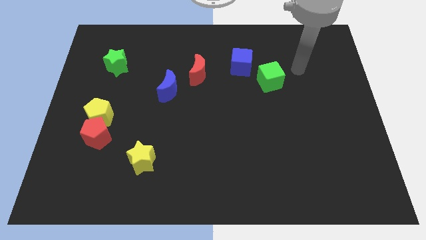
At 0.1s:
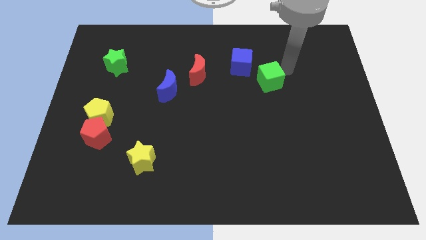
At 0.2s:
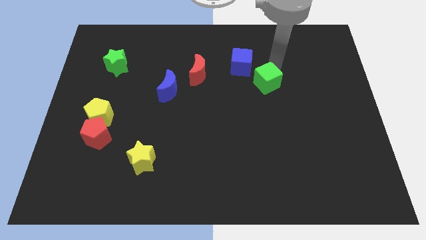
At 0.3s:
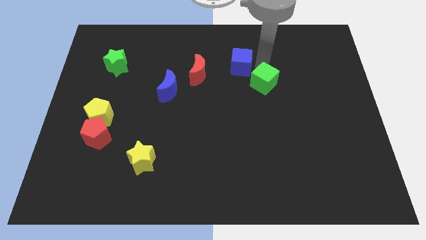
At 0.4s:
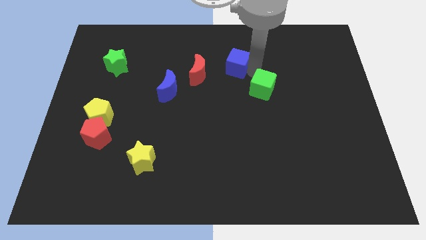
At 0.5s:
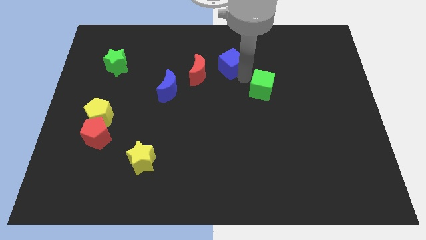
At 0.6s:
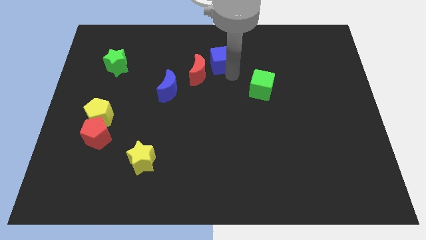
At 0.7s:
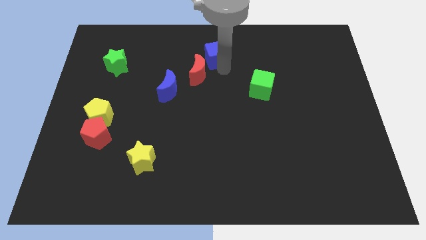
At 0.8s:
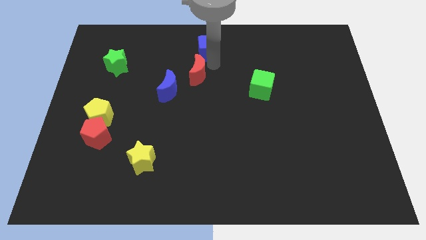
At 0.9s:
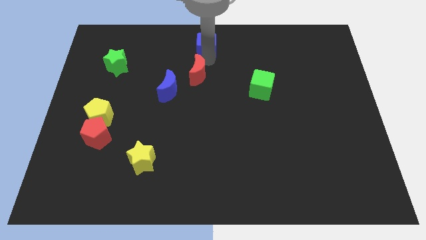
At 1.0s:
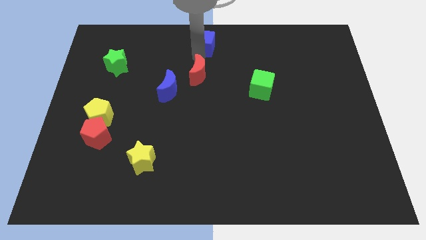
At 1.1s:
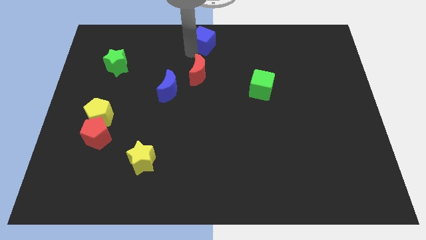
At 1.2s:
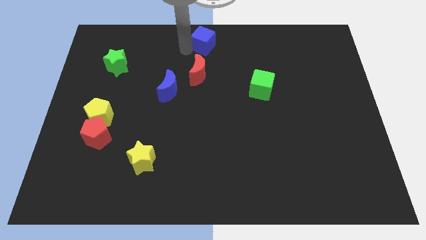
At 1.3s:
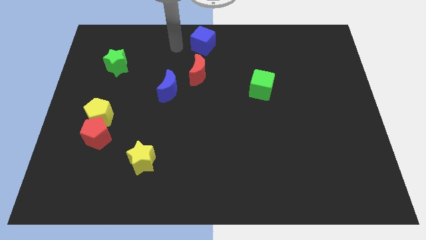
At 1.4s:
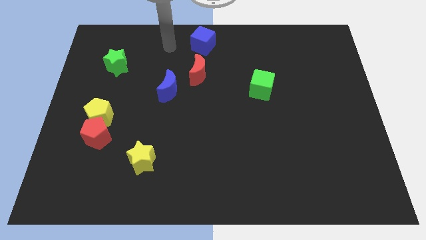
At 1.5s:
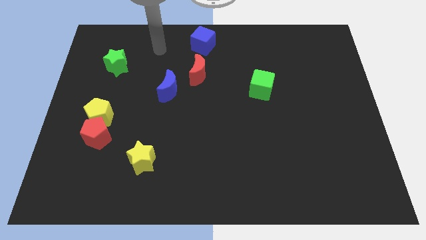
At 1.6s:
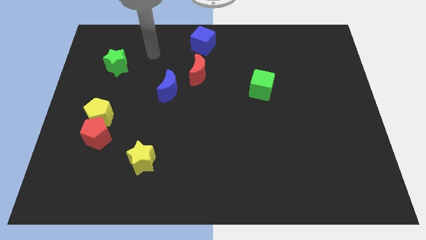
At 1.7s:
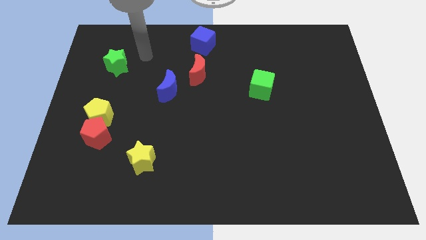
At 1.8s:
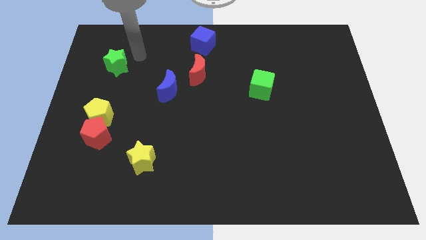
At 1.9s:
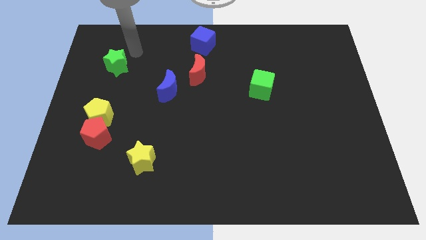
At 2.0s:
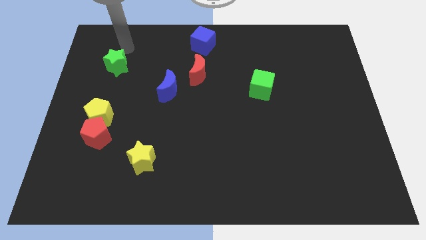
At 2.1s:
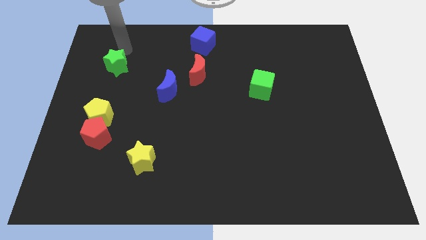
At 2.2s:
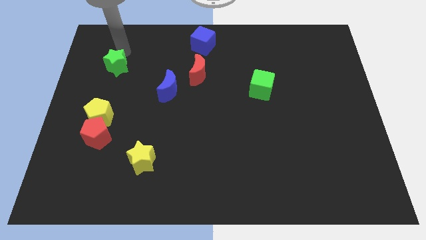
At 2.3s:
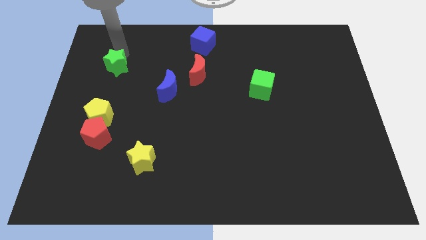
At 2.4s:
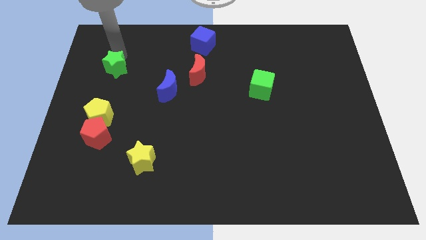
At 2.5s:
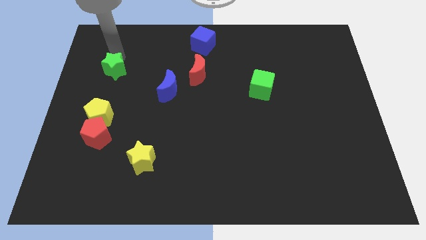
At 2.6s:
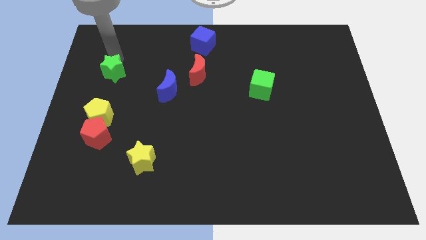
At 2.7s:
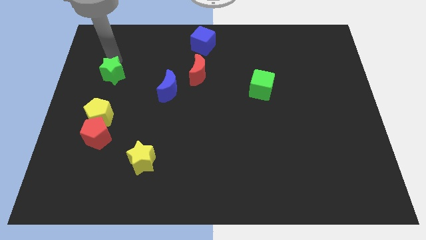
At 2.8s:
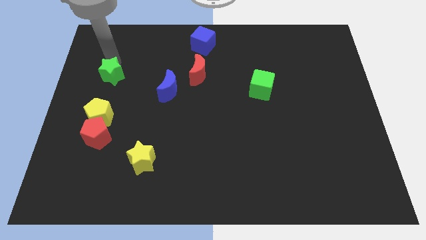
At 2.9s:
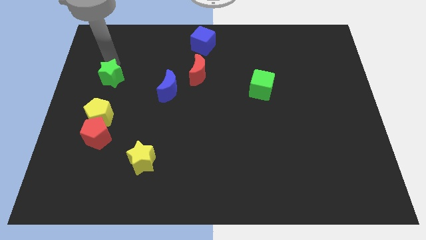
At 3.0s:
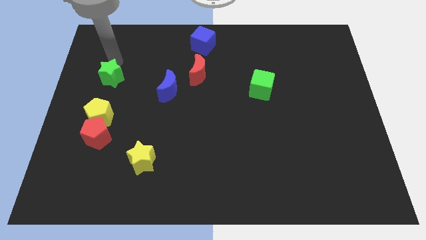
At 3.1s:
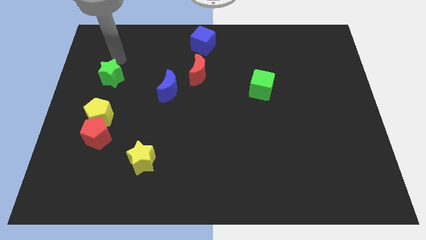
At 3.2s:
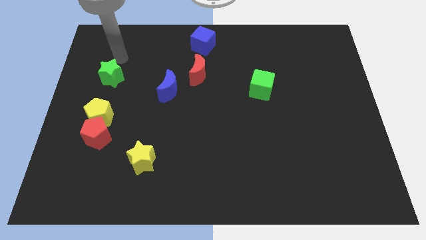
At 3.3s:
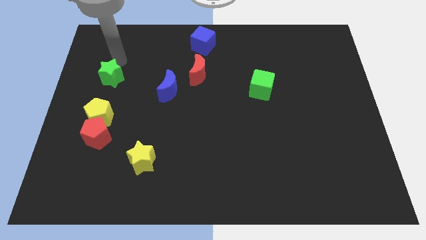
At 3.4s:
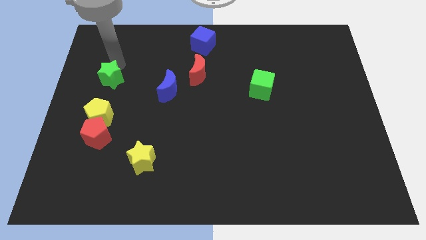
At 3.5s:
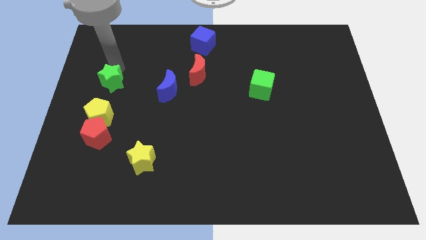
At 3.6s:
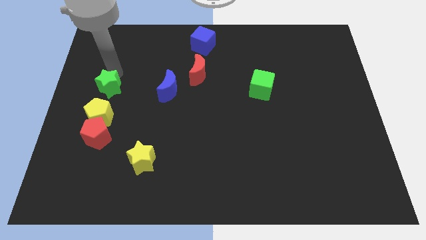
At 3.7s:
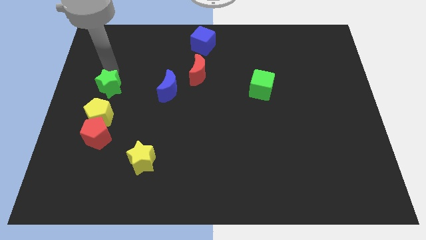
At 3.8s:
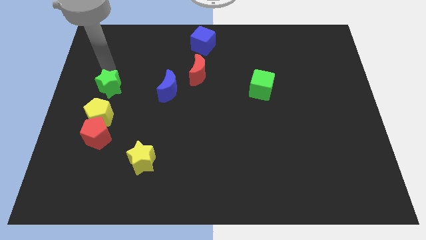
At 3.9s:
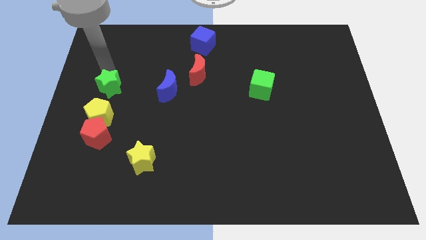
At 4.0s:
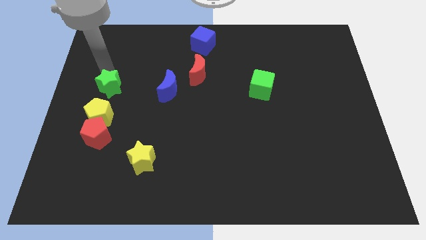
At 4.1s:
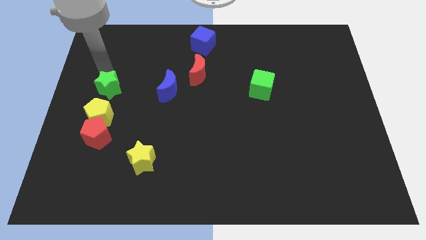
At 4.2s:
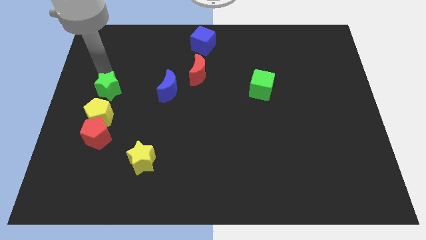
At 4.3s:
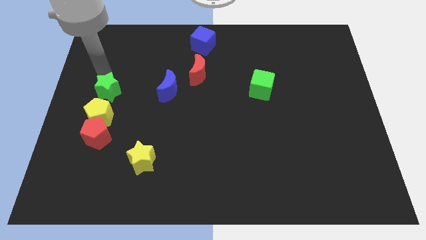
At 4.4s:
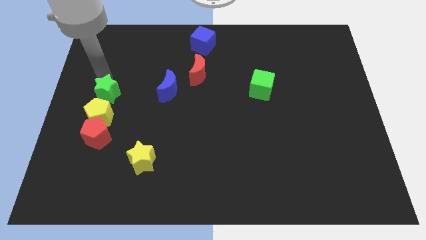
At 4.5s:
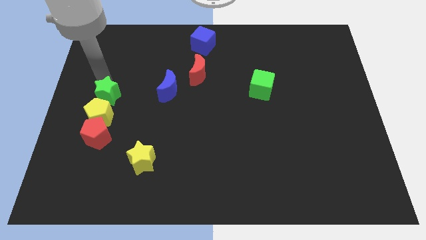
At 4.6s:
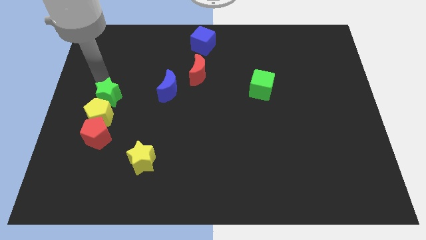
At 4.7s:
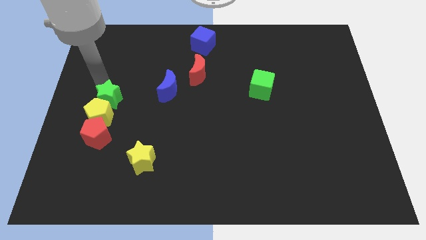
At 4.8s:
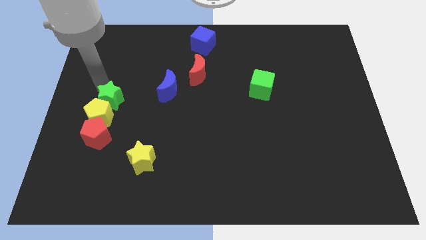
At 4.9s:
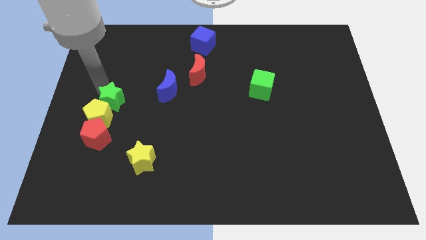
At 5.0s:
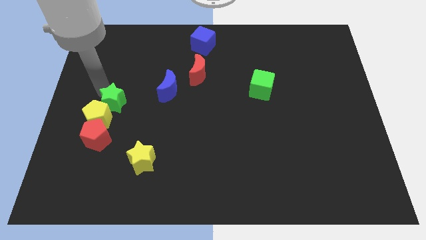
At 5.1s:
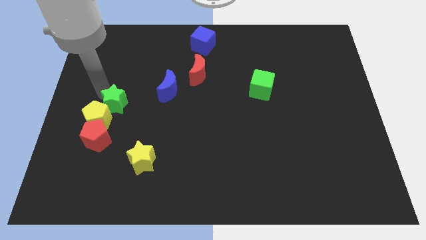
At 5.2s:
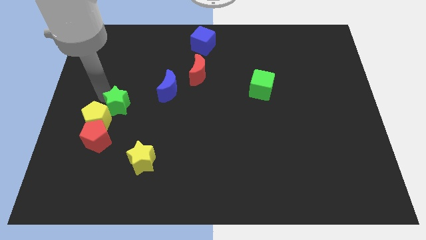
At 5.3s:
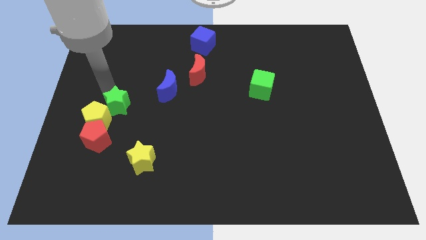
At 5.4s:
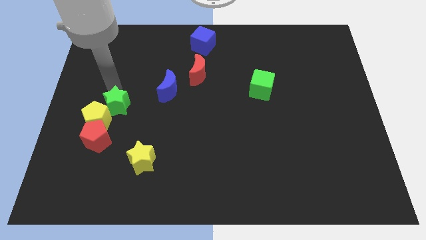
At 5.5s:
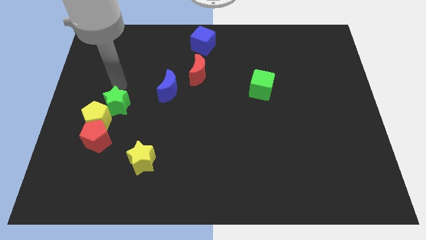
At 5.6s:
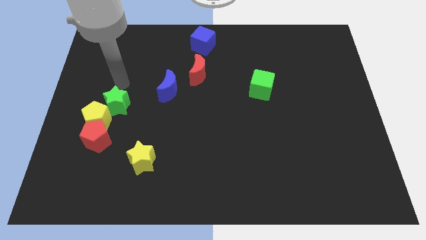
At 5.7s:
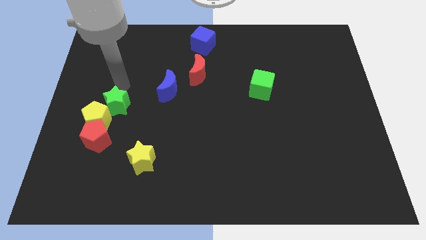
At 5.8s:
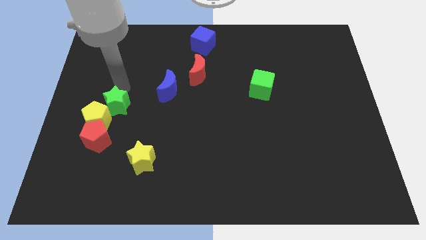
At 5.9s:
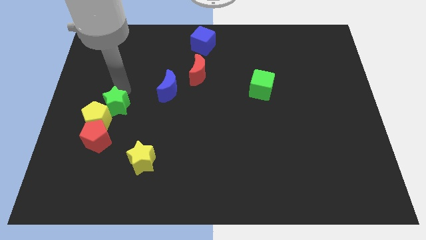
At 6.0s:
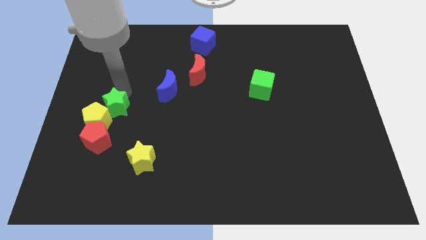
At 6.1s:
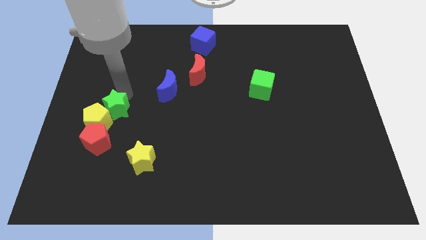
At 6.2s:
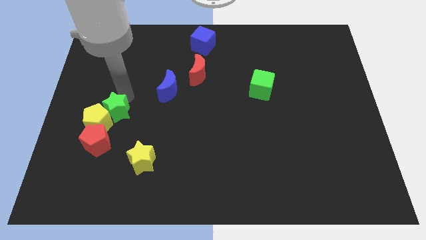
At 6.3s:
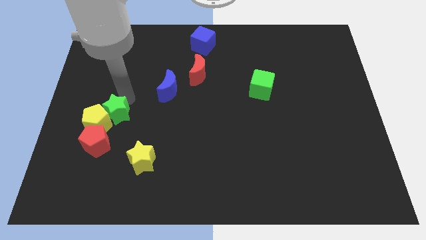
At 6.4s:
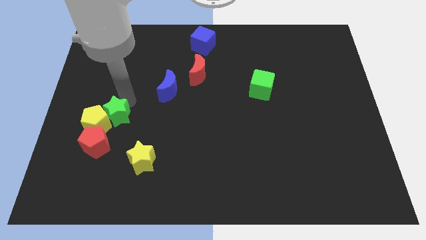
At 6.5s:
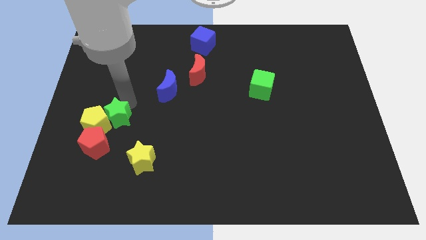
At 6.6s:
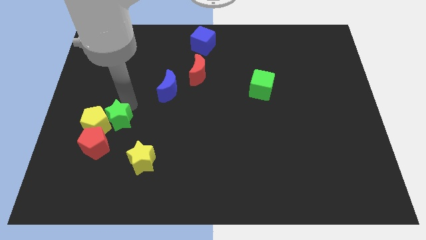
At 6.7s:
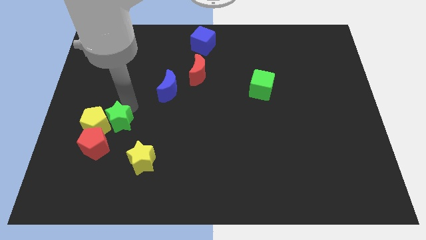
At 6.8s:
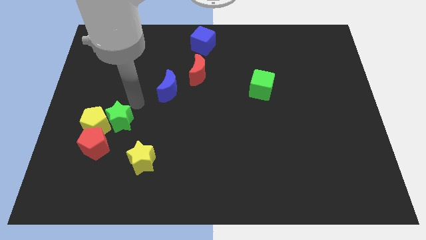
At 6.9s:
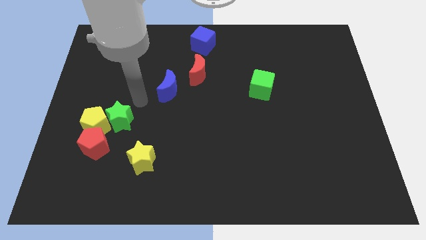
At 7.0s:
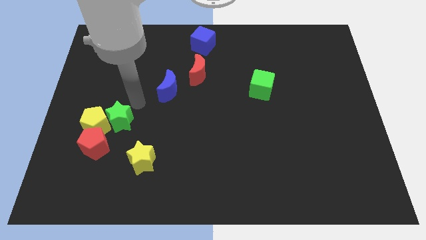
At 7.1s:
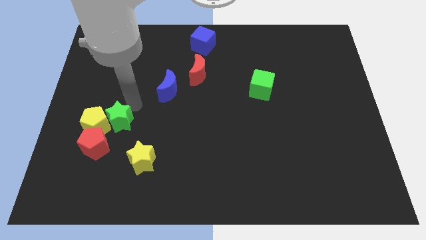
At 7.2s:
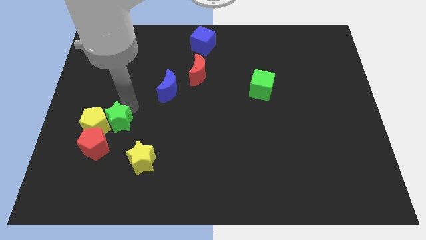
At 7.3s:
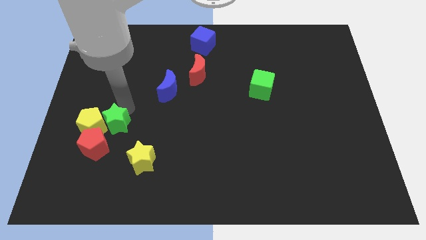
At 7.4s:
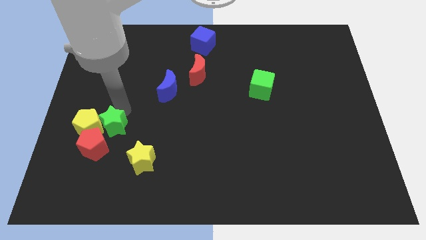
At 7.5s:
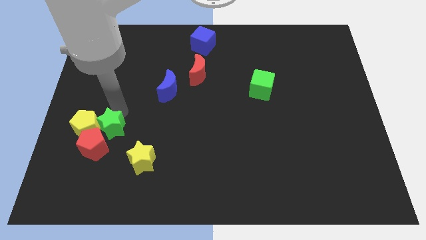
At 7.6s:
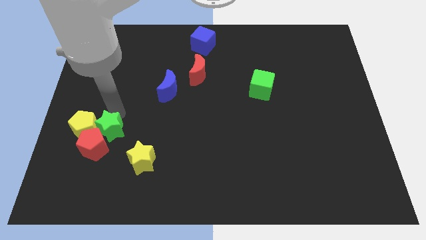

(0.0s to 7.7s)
put the green star to the red pentagon
